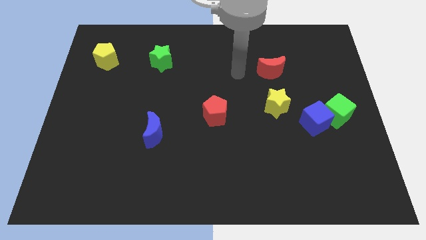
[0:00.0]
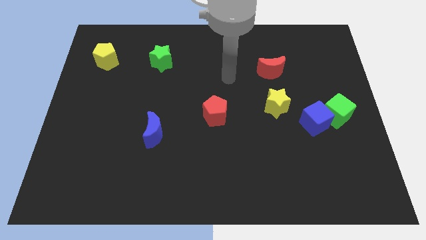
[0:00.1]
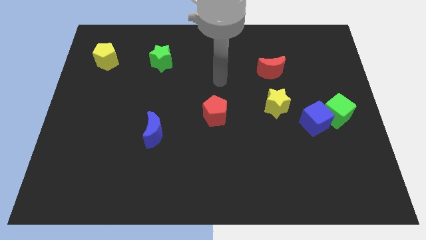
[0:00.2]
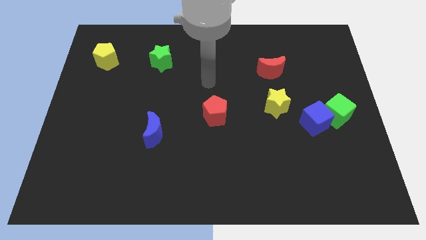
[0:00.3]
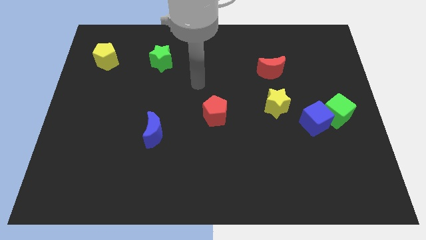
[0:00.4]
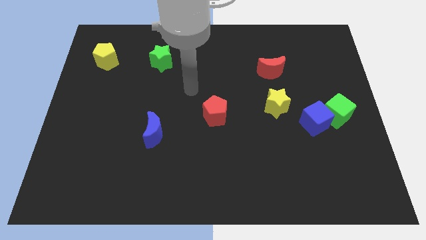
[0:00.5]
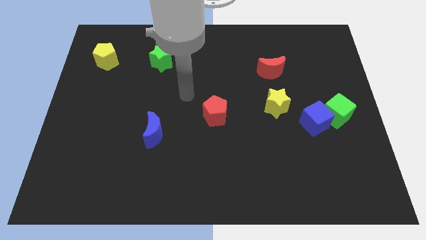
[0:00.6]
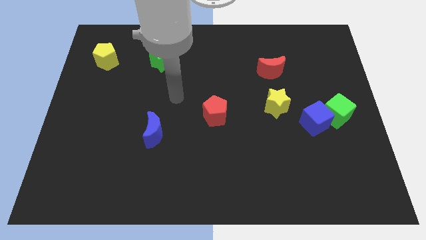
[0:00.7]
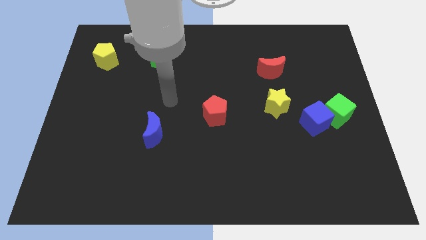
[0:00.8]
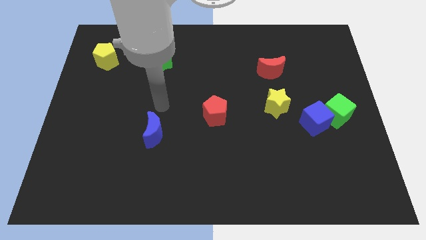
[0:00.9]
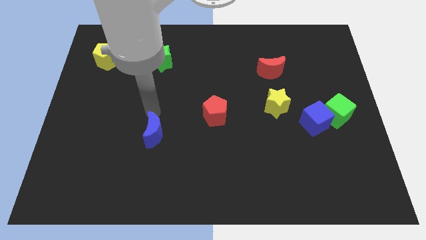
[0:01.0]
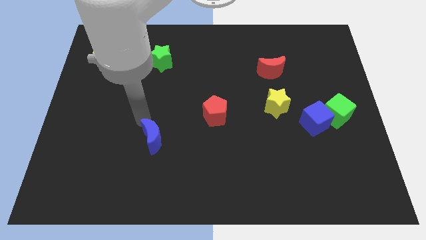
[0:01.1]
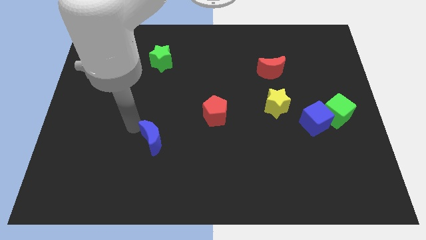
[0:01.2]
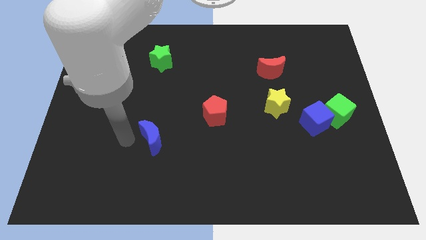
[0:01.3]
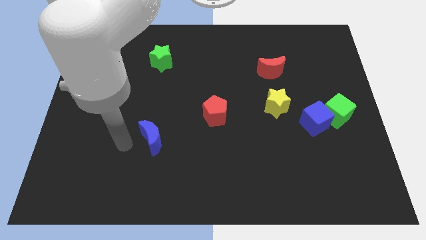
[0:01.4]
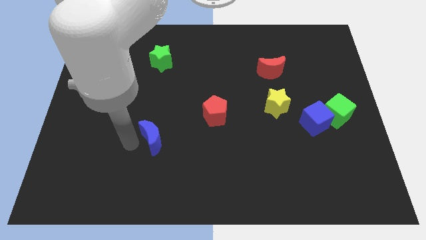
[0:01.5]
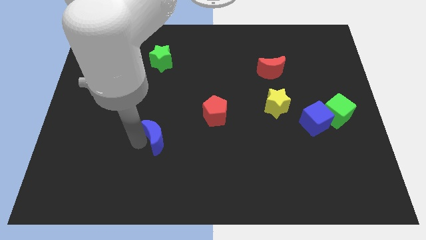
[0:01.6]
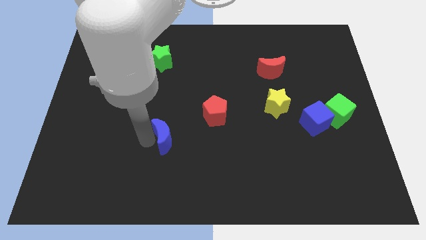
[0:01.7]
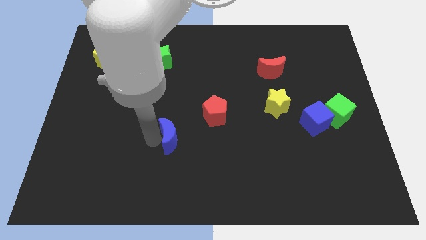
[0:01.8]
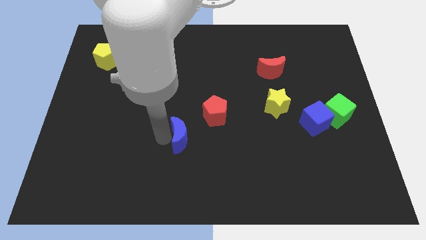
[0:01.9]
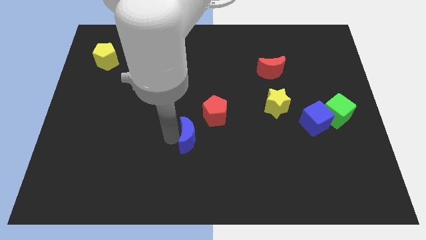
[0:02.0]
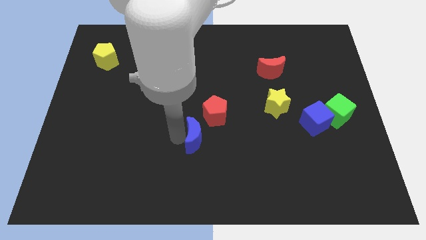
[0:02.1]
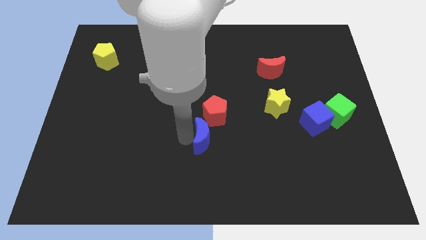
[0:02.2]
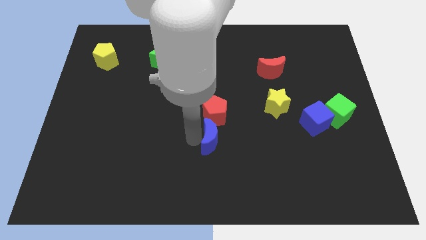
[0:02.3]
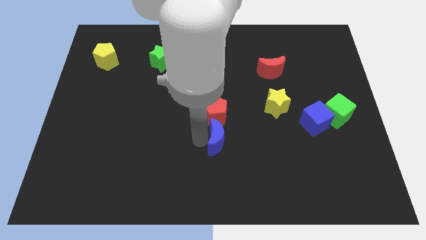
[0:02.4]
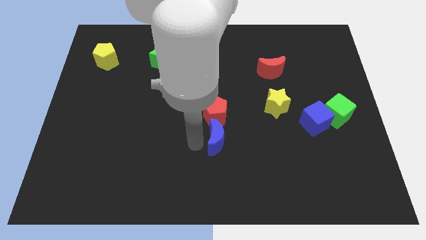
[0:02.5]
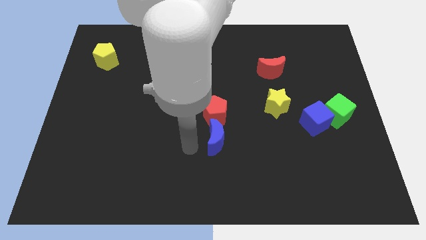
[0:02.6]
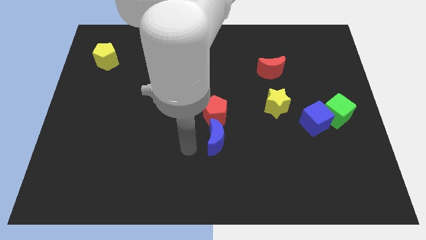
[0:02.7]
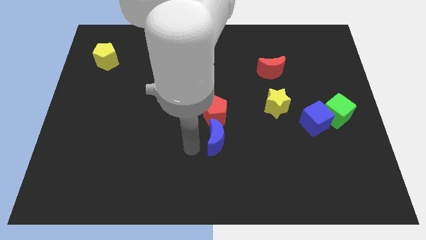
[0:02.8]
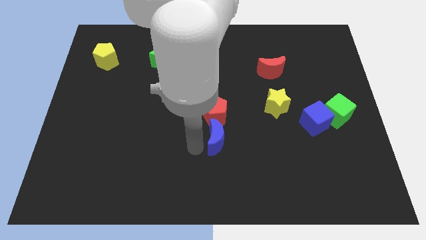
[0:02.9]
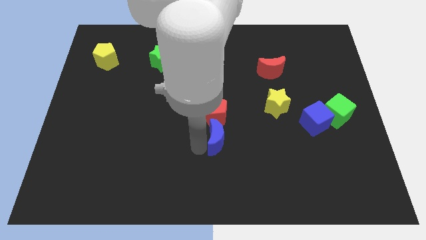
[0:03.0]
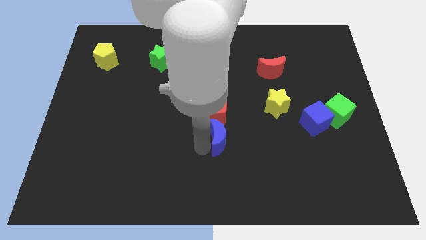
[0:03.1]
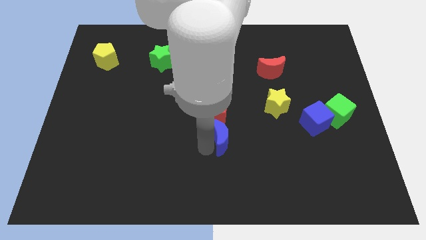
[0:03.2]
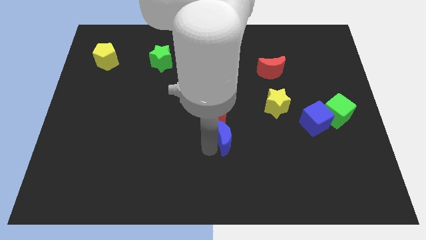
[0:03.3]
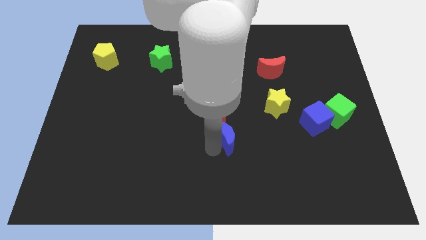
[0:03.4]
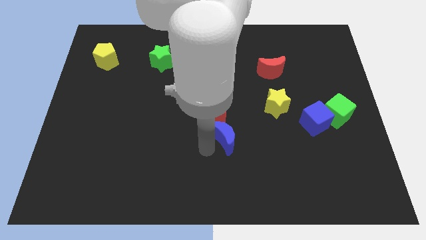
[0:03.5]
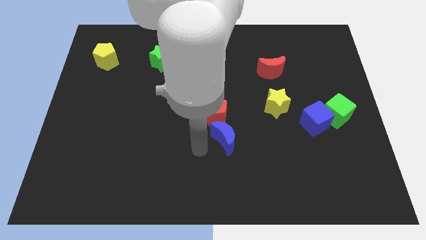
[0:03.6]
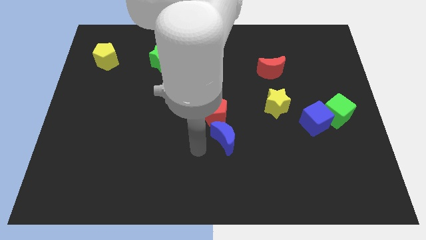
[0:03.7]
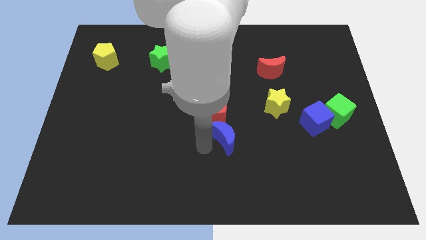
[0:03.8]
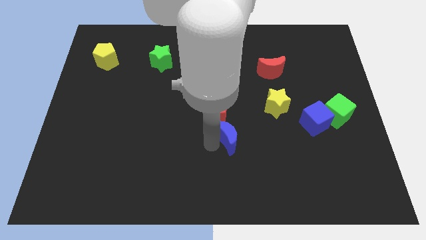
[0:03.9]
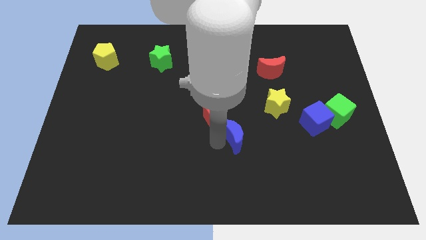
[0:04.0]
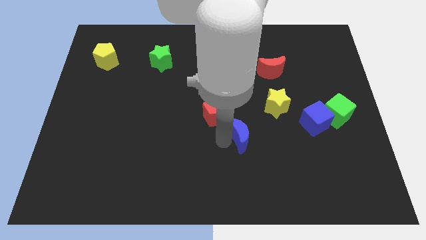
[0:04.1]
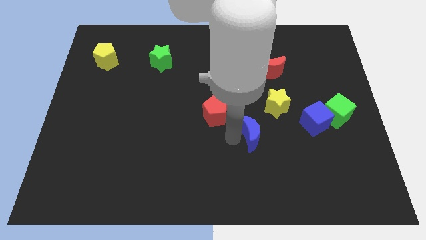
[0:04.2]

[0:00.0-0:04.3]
slide the blue moon to the right
